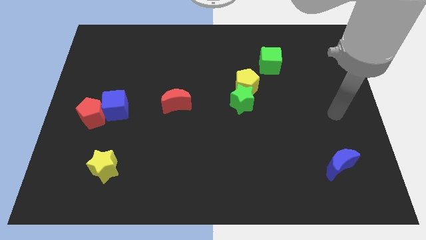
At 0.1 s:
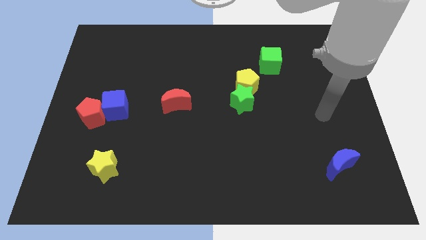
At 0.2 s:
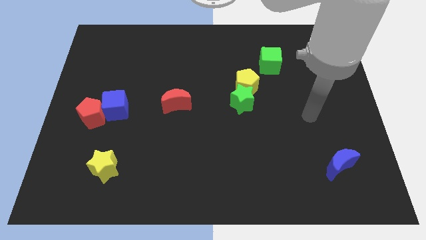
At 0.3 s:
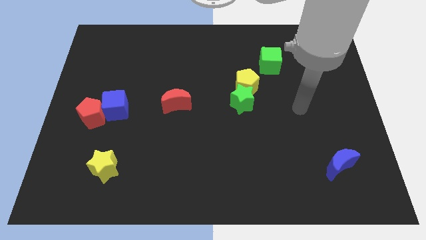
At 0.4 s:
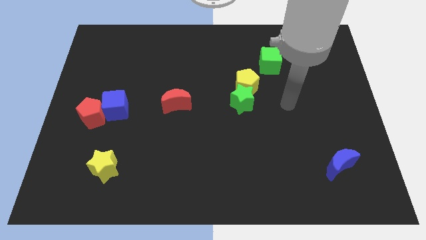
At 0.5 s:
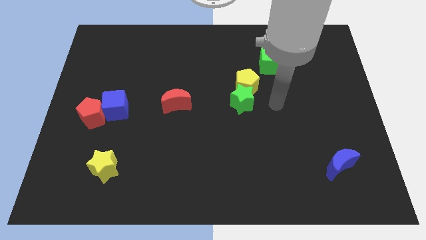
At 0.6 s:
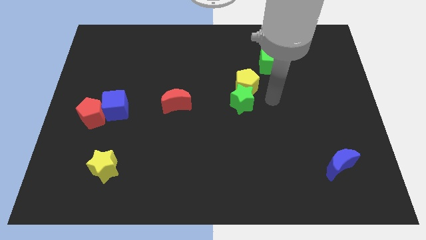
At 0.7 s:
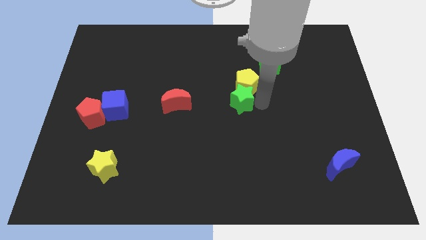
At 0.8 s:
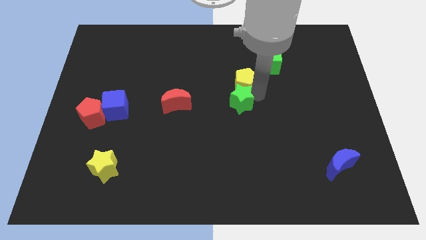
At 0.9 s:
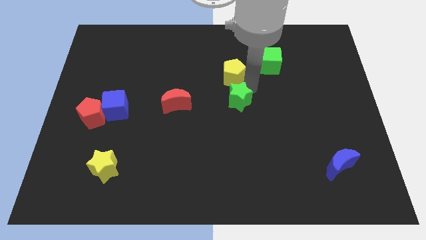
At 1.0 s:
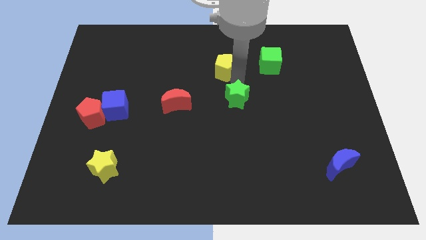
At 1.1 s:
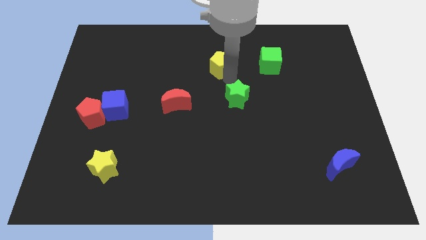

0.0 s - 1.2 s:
move the green star away from the yellow pentagon

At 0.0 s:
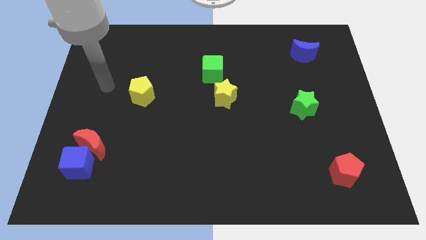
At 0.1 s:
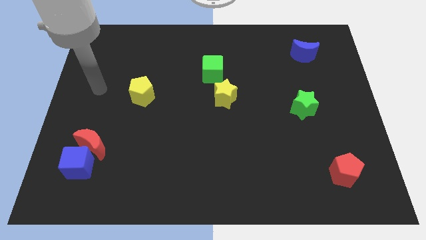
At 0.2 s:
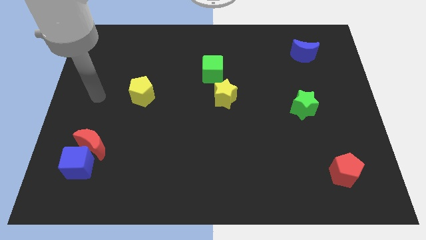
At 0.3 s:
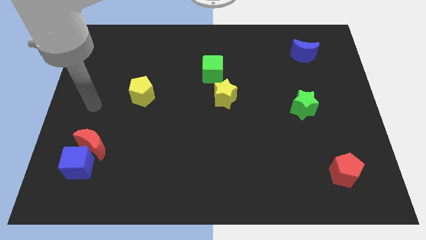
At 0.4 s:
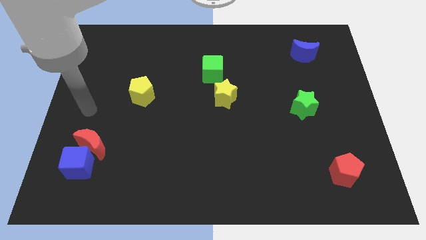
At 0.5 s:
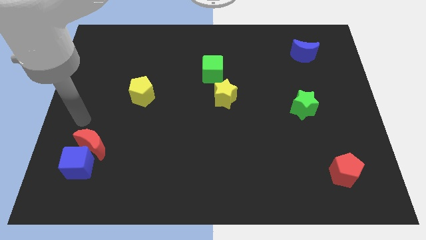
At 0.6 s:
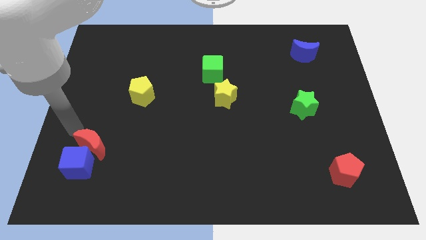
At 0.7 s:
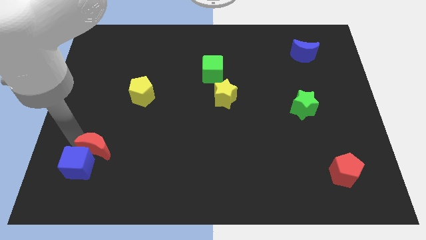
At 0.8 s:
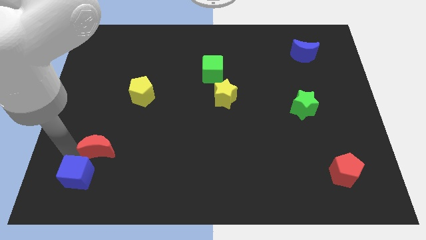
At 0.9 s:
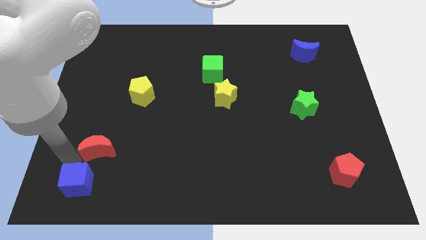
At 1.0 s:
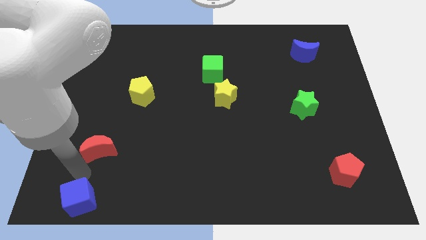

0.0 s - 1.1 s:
pull the red moon apart from the blue cube

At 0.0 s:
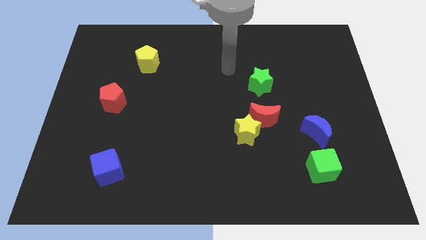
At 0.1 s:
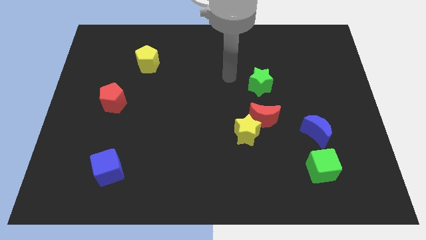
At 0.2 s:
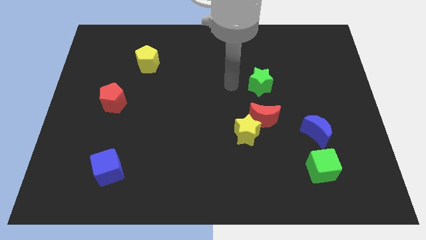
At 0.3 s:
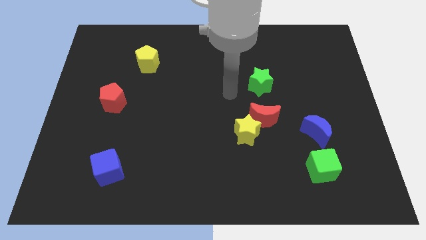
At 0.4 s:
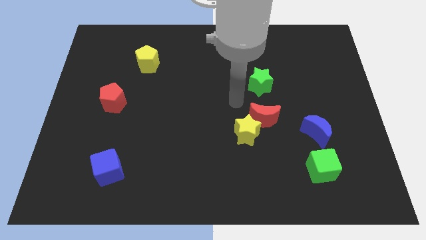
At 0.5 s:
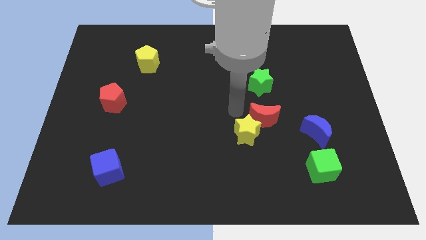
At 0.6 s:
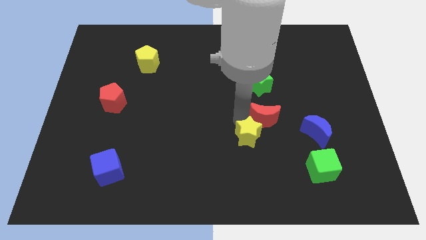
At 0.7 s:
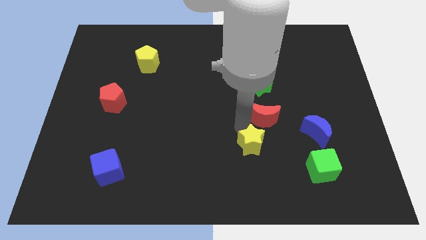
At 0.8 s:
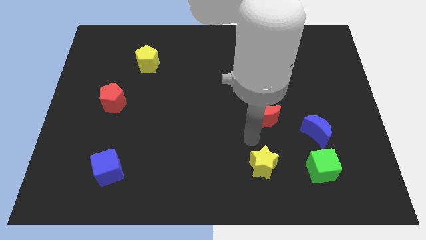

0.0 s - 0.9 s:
separate the red moon from the yellow star

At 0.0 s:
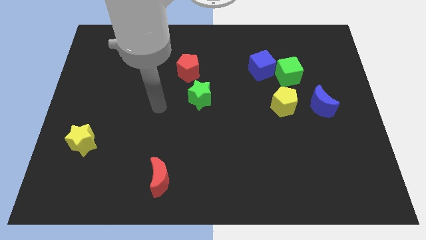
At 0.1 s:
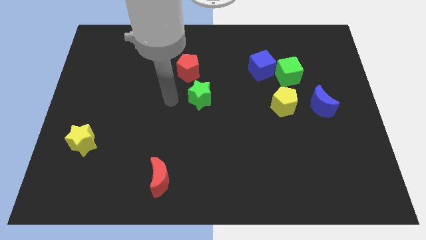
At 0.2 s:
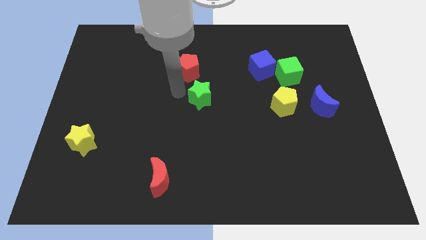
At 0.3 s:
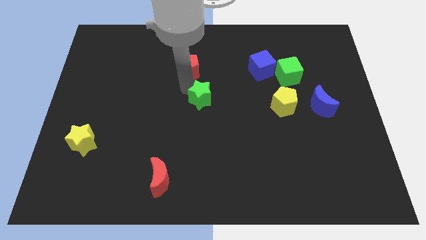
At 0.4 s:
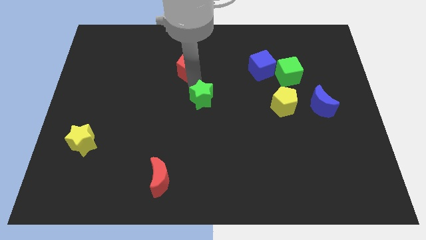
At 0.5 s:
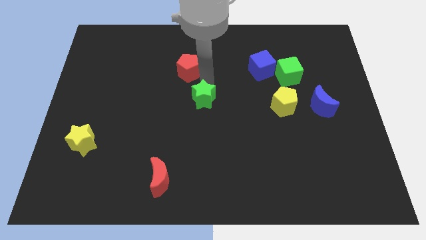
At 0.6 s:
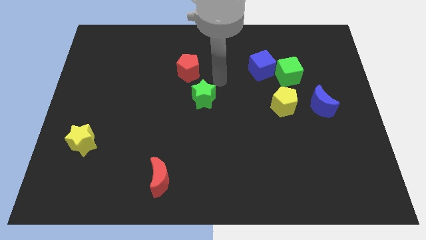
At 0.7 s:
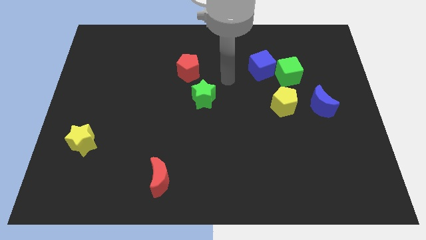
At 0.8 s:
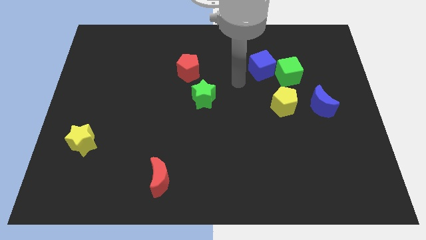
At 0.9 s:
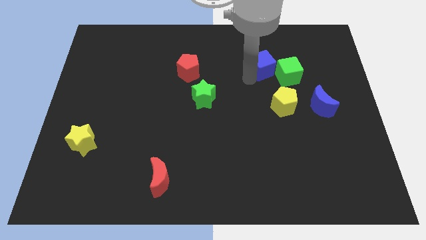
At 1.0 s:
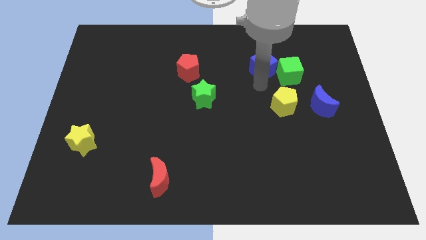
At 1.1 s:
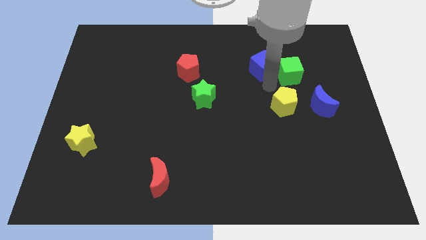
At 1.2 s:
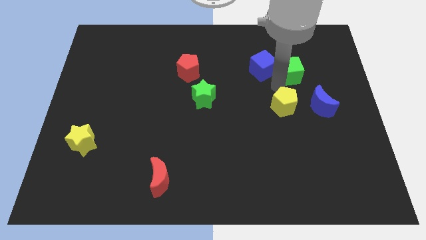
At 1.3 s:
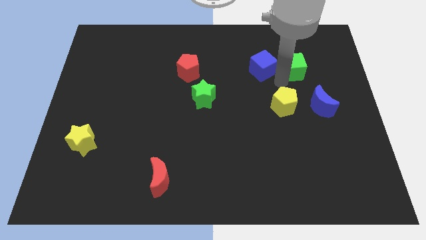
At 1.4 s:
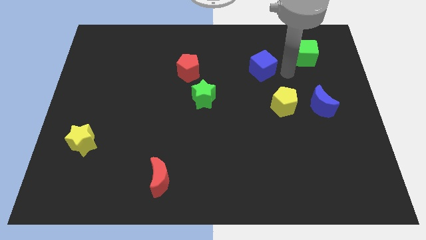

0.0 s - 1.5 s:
pull the blue cube apart from the green cube

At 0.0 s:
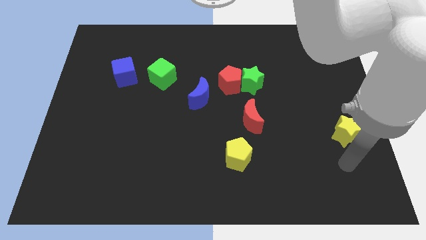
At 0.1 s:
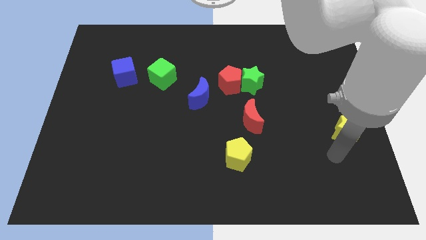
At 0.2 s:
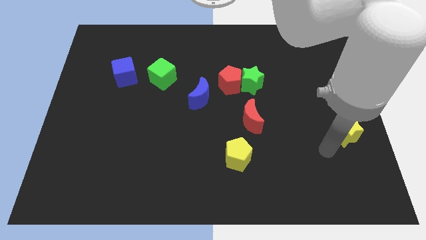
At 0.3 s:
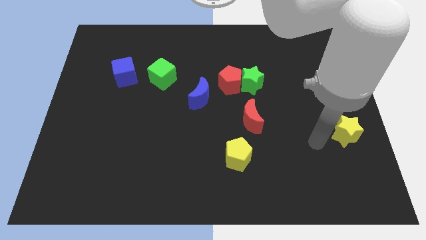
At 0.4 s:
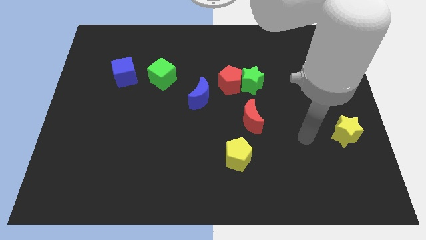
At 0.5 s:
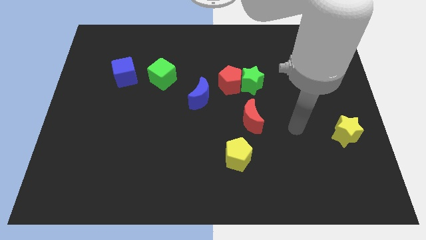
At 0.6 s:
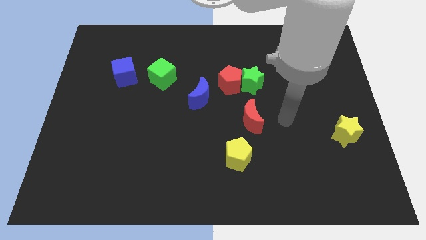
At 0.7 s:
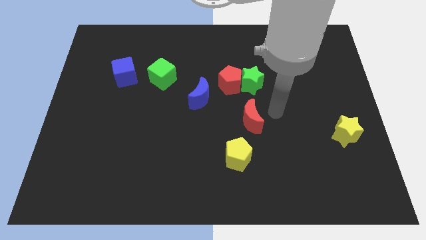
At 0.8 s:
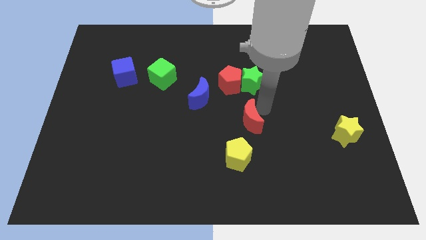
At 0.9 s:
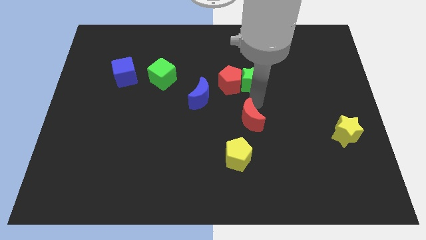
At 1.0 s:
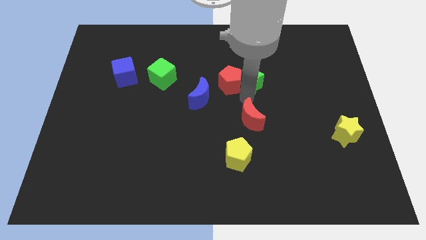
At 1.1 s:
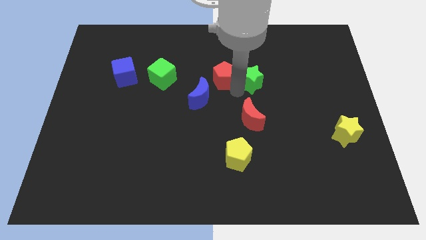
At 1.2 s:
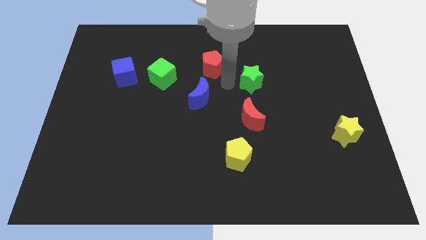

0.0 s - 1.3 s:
separate the green star from the red pentagon

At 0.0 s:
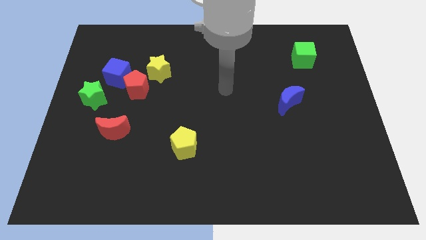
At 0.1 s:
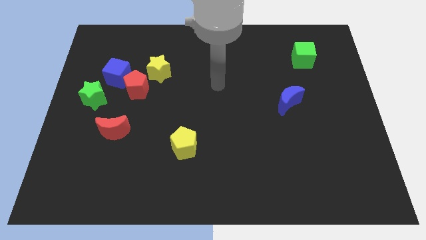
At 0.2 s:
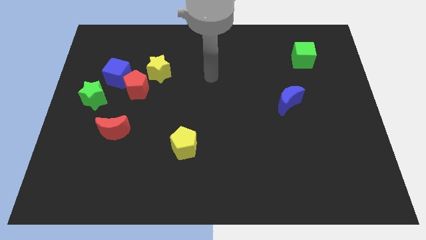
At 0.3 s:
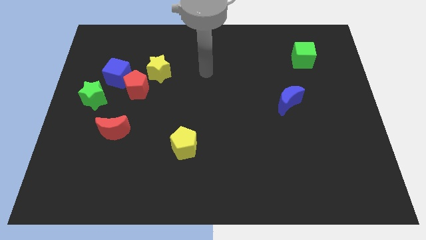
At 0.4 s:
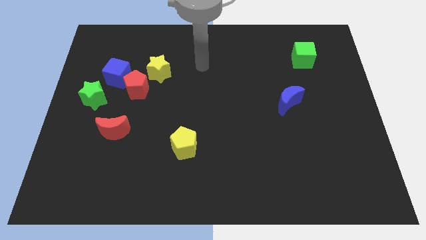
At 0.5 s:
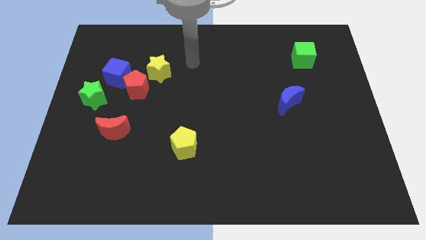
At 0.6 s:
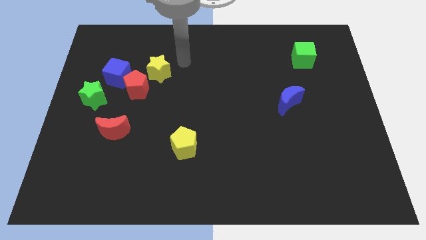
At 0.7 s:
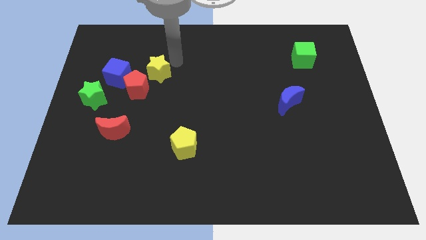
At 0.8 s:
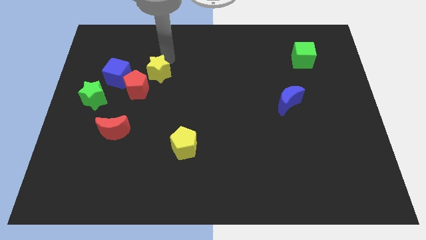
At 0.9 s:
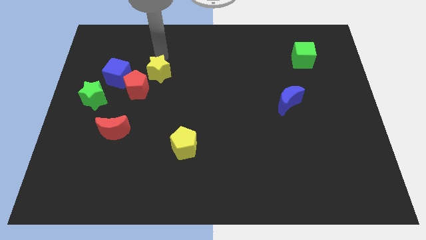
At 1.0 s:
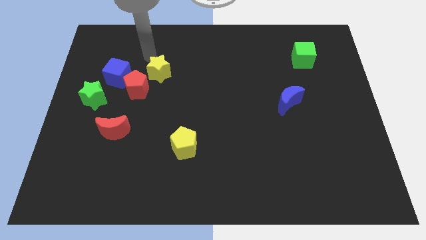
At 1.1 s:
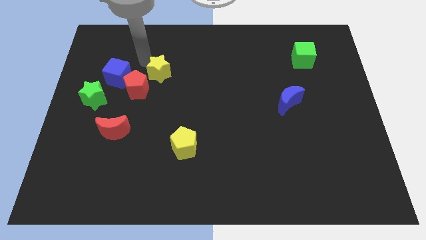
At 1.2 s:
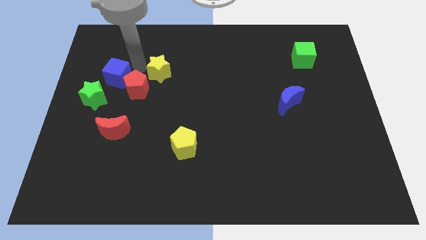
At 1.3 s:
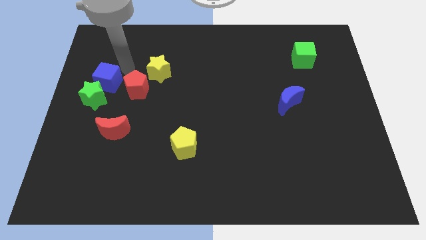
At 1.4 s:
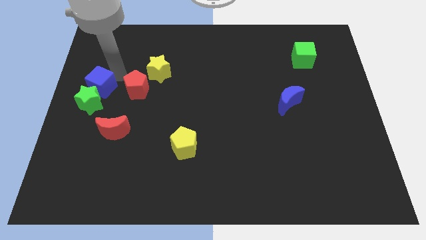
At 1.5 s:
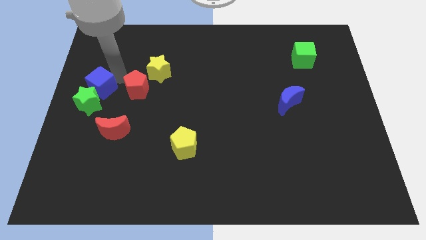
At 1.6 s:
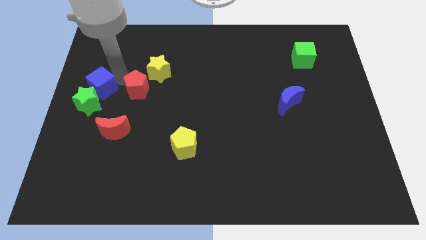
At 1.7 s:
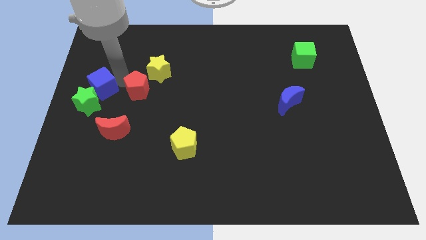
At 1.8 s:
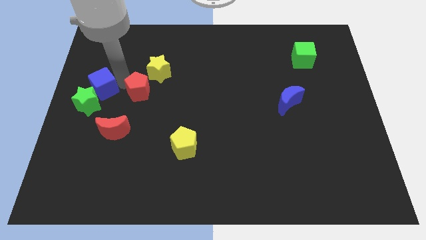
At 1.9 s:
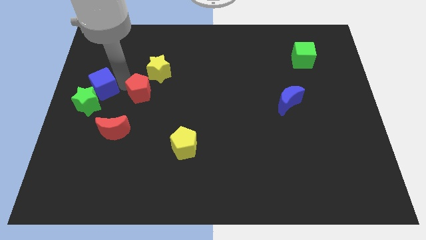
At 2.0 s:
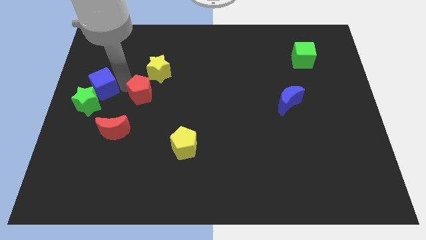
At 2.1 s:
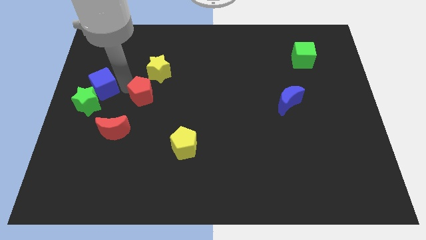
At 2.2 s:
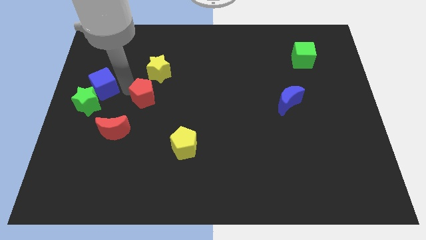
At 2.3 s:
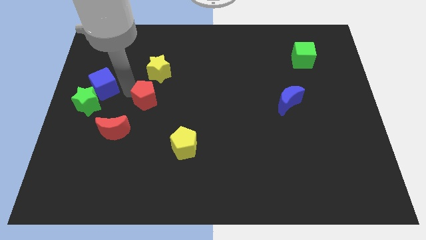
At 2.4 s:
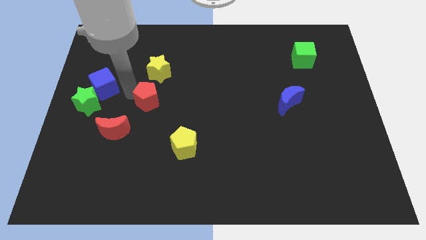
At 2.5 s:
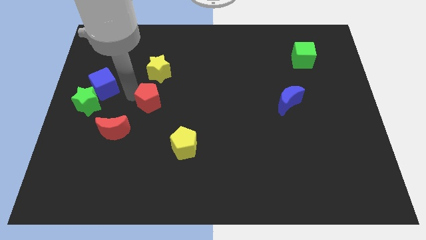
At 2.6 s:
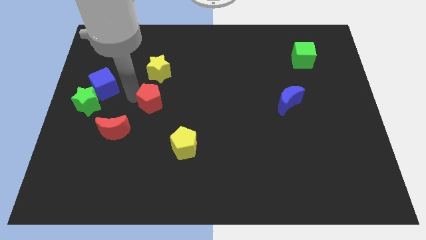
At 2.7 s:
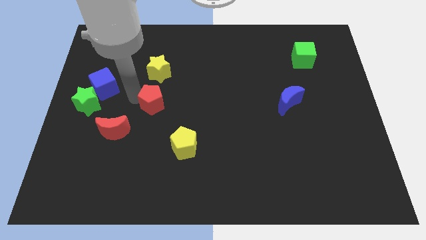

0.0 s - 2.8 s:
separate the red pentagon from the blue cube, yellow star, and green star

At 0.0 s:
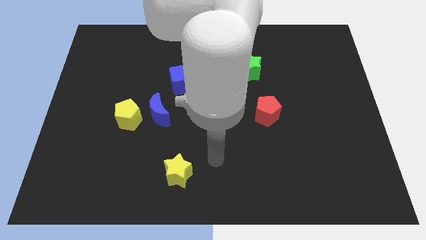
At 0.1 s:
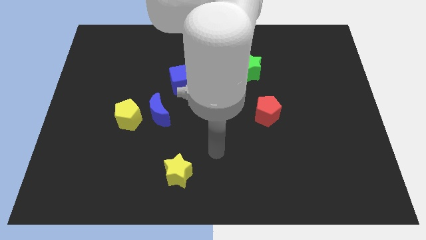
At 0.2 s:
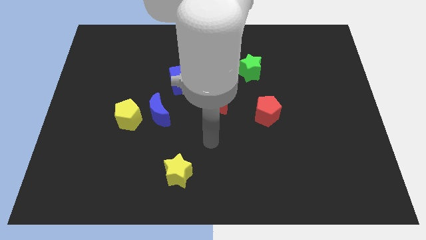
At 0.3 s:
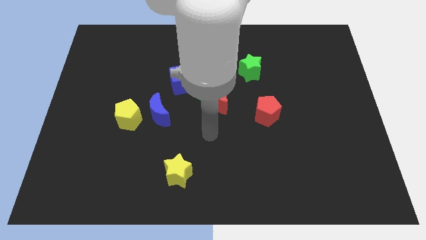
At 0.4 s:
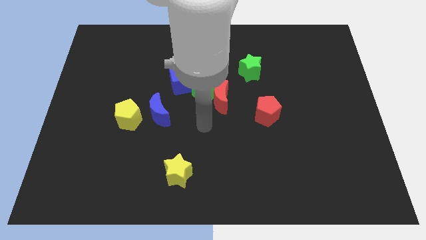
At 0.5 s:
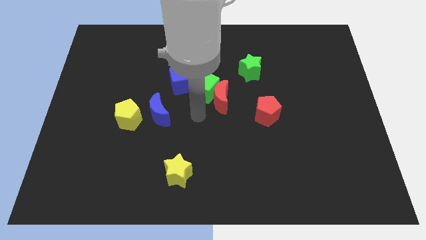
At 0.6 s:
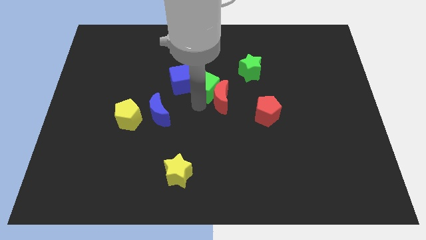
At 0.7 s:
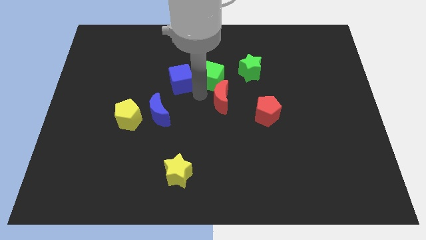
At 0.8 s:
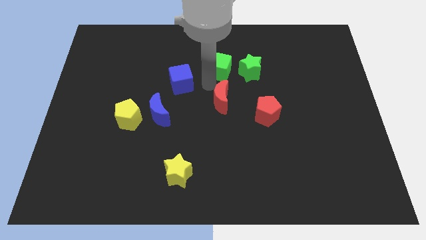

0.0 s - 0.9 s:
pull the red moon apart from the green cube
